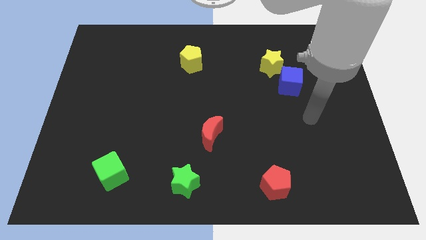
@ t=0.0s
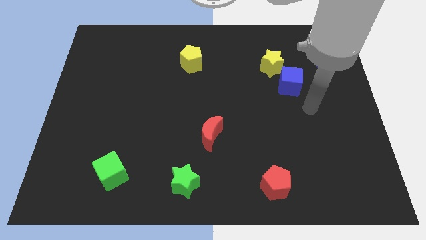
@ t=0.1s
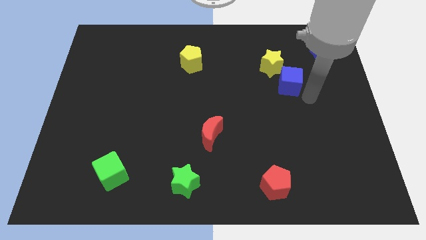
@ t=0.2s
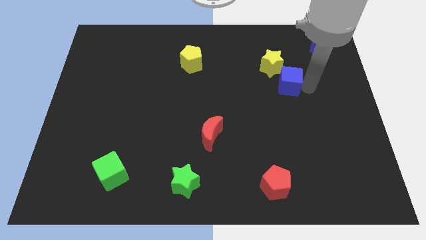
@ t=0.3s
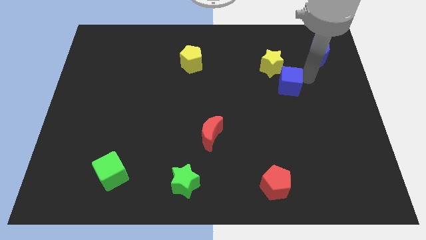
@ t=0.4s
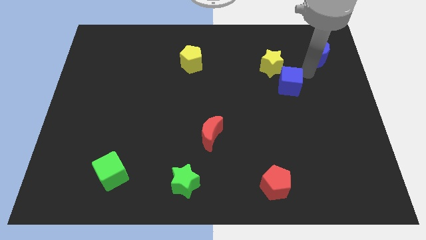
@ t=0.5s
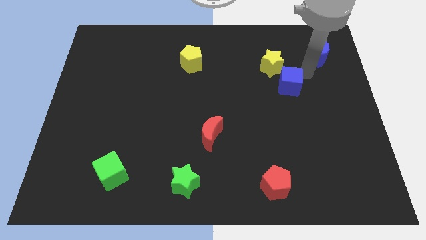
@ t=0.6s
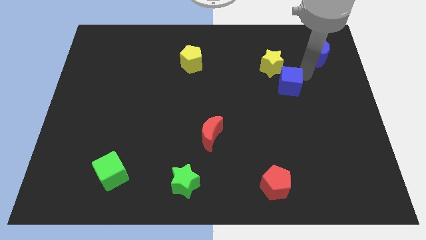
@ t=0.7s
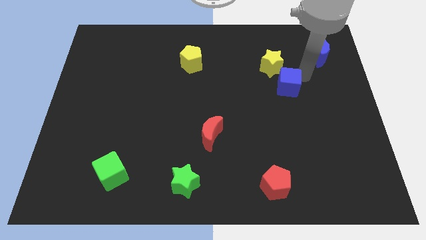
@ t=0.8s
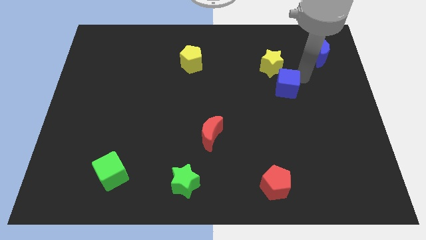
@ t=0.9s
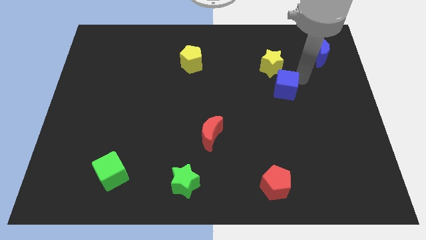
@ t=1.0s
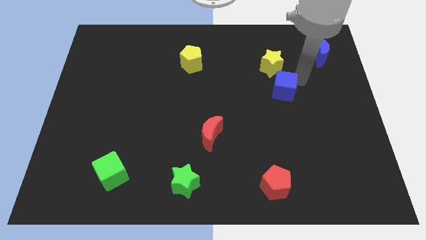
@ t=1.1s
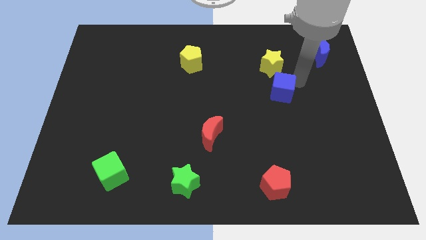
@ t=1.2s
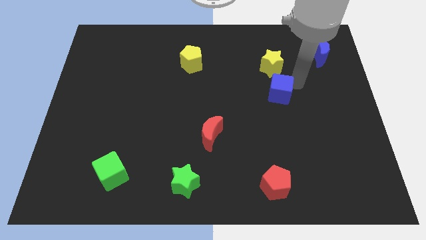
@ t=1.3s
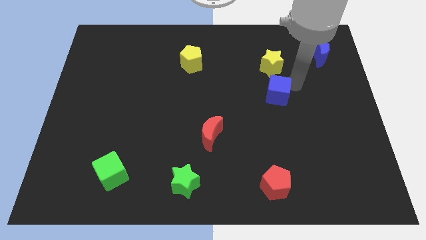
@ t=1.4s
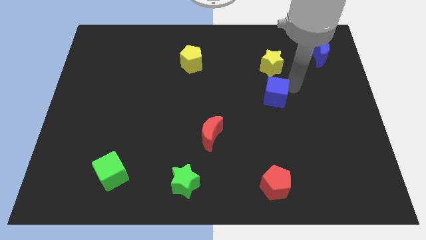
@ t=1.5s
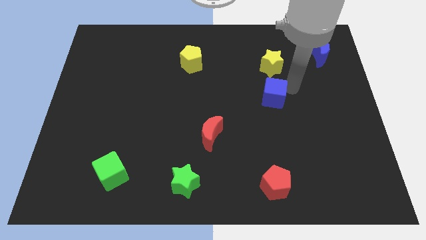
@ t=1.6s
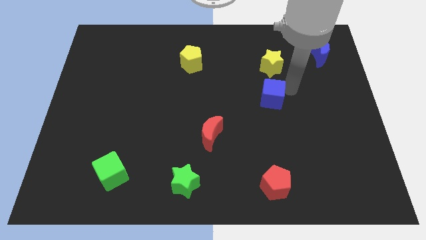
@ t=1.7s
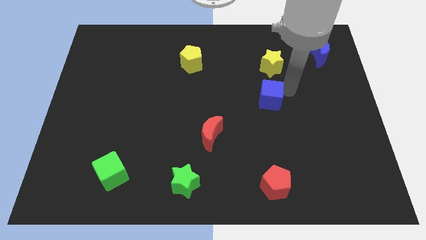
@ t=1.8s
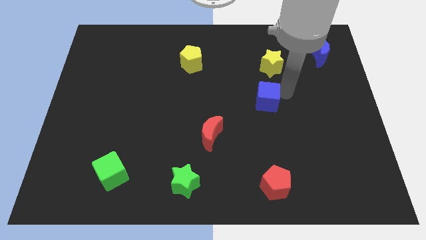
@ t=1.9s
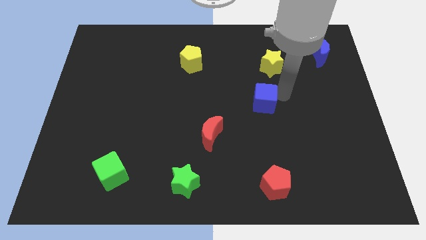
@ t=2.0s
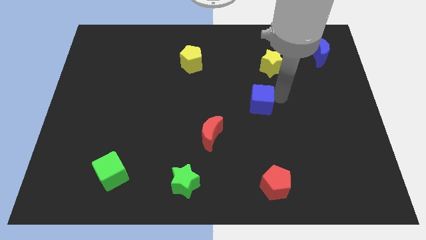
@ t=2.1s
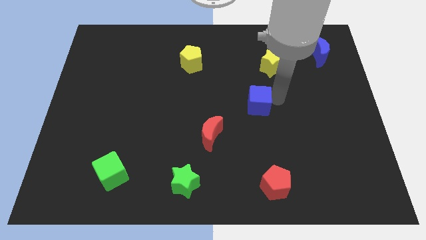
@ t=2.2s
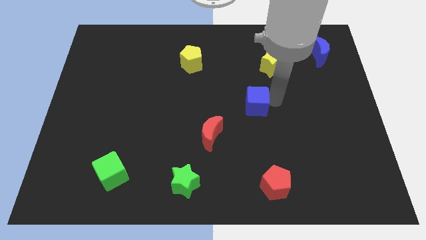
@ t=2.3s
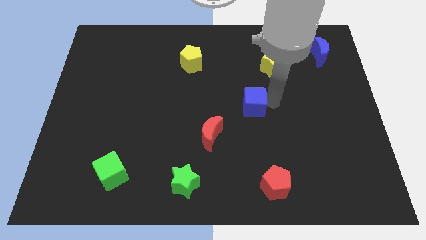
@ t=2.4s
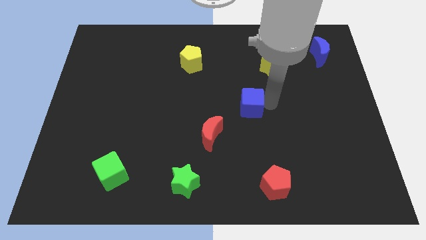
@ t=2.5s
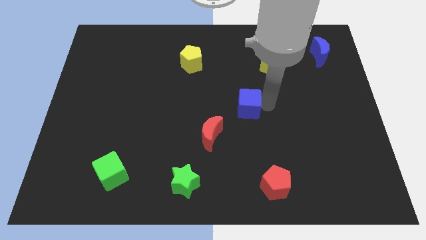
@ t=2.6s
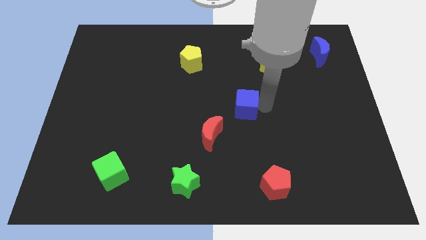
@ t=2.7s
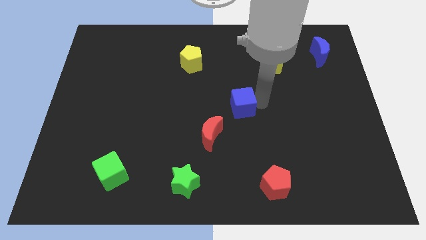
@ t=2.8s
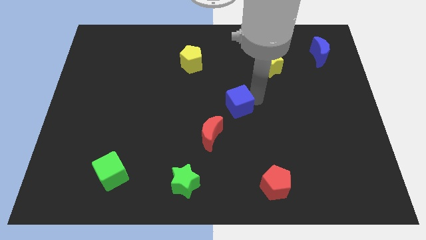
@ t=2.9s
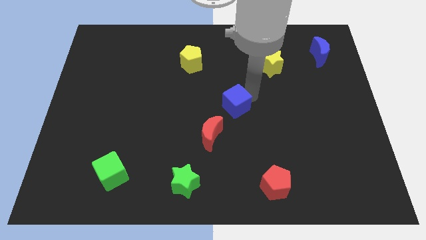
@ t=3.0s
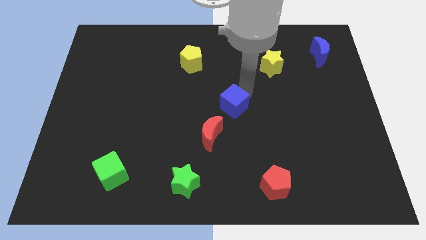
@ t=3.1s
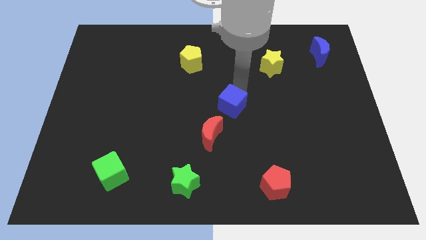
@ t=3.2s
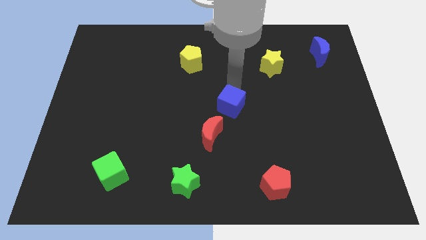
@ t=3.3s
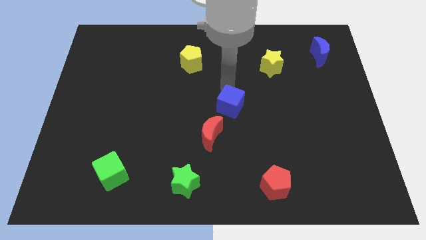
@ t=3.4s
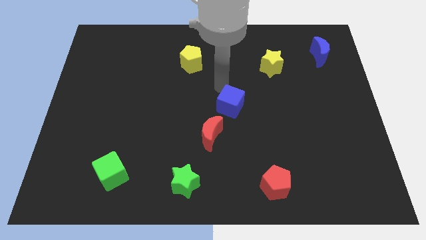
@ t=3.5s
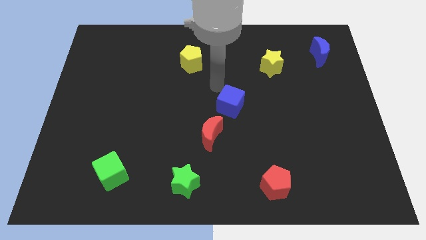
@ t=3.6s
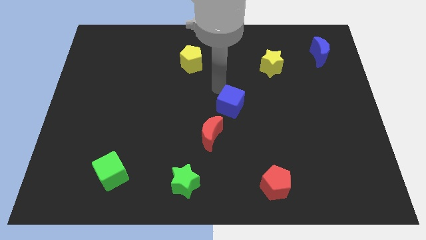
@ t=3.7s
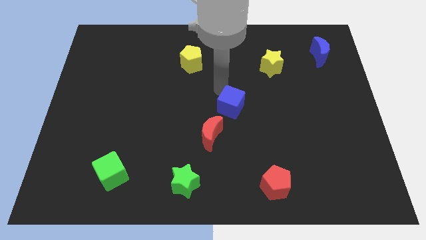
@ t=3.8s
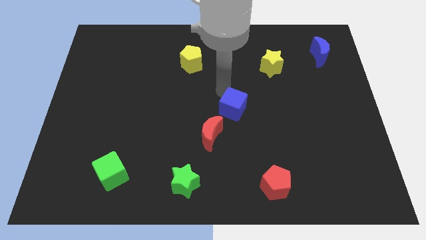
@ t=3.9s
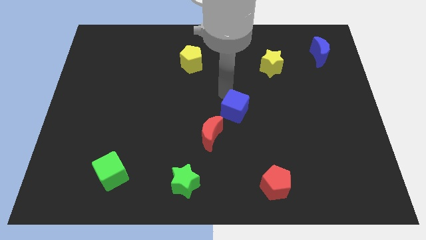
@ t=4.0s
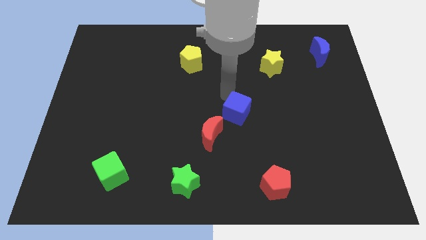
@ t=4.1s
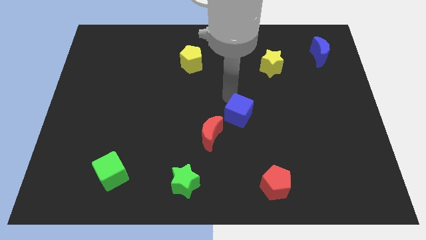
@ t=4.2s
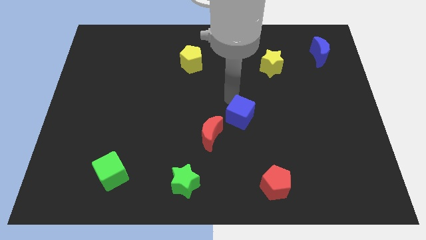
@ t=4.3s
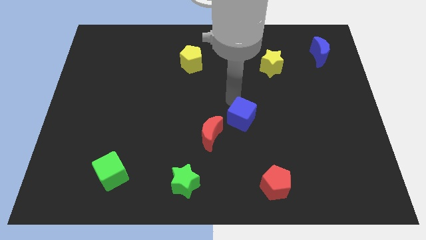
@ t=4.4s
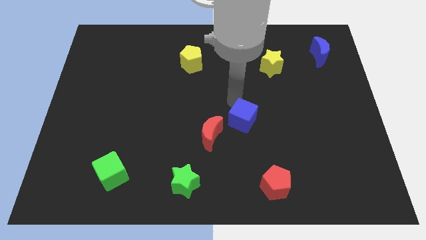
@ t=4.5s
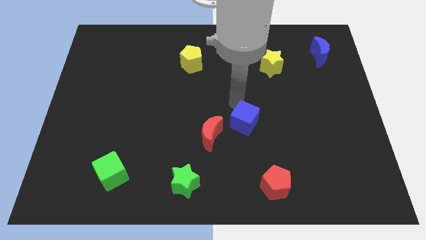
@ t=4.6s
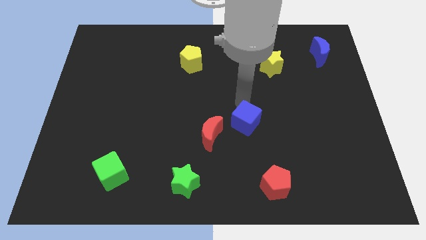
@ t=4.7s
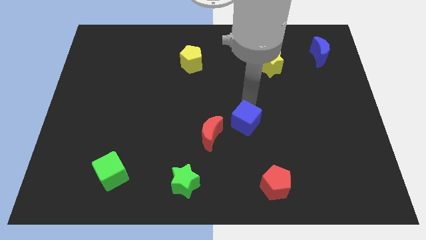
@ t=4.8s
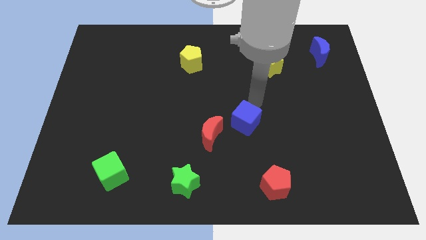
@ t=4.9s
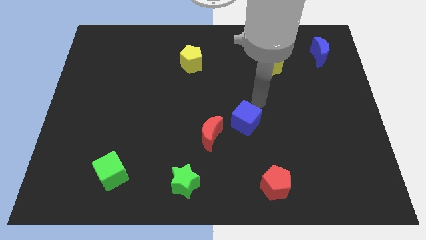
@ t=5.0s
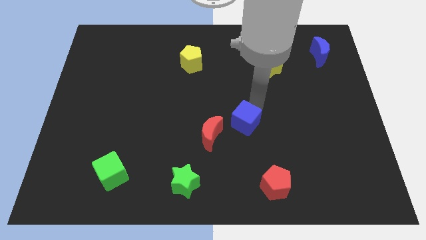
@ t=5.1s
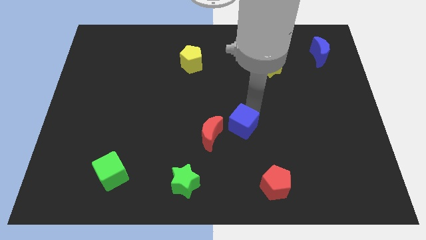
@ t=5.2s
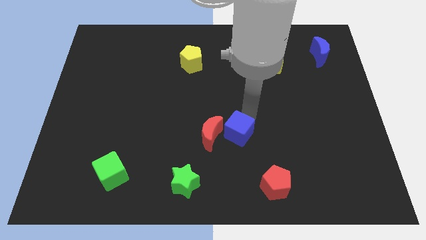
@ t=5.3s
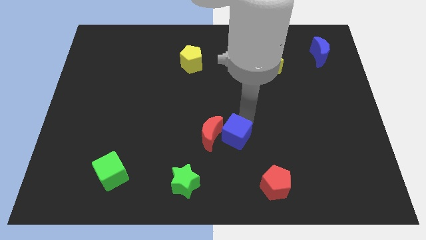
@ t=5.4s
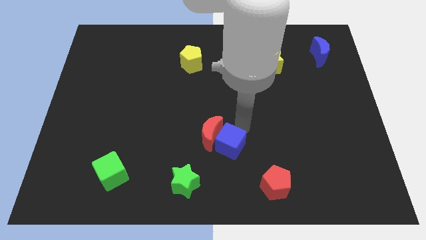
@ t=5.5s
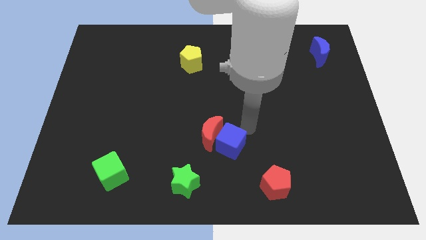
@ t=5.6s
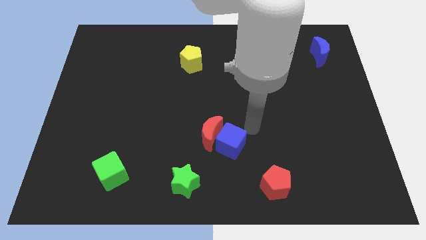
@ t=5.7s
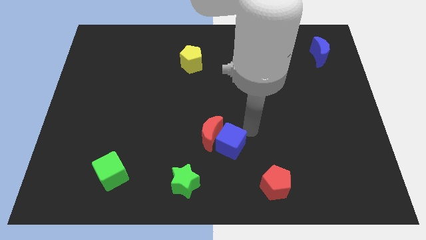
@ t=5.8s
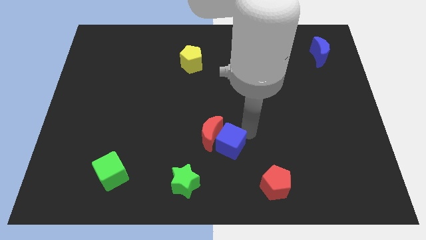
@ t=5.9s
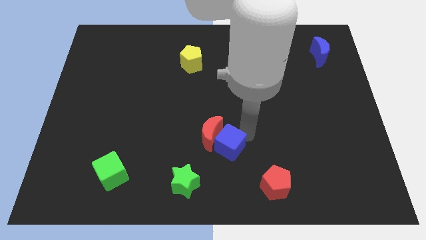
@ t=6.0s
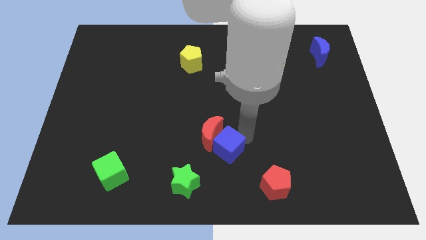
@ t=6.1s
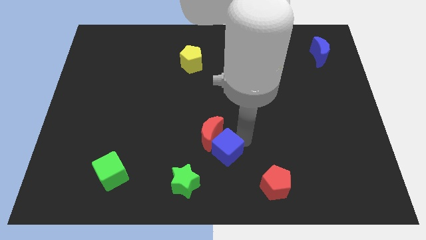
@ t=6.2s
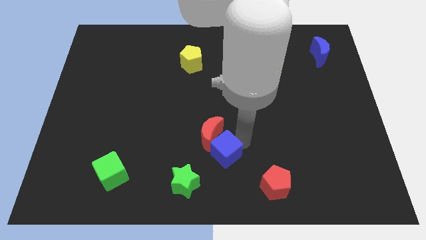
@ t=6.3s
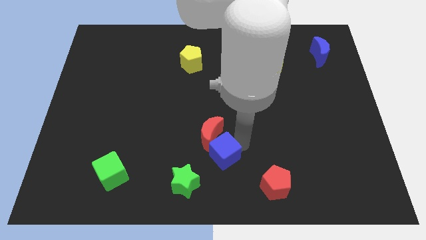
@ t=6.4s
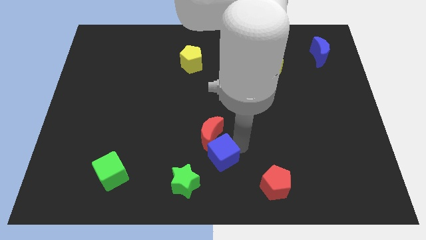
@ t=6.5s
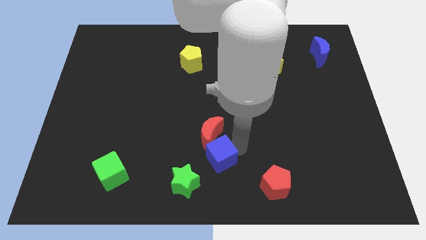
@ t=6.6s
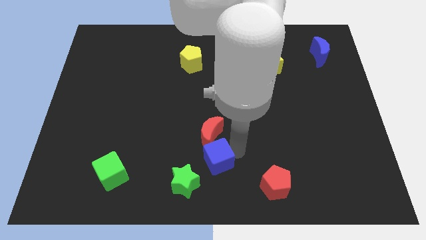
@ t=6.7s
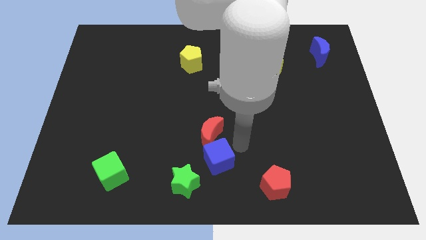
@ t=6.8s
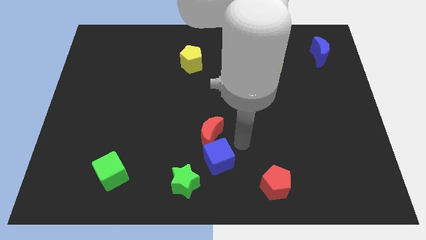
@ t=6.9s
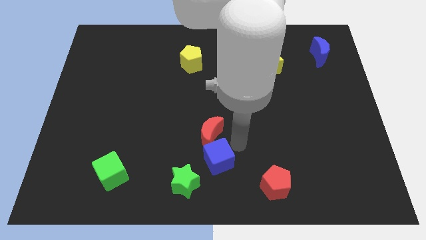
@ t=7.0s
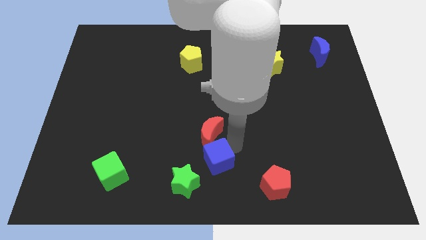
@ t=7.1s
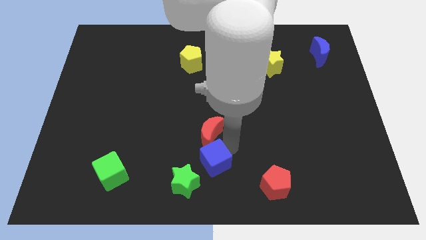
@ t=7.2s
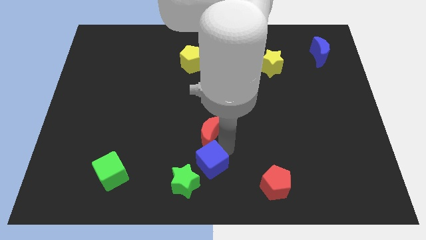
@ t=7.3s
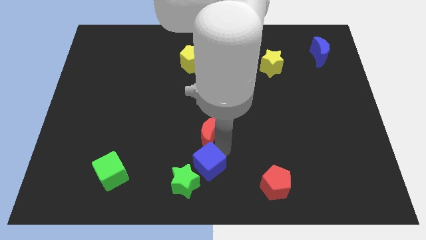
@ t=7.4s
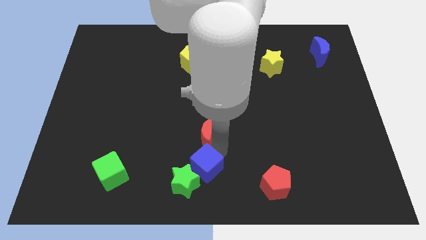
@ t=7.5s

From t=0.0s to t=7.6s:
slide the blue cube to the green star
